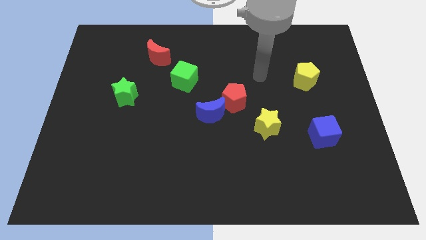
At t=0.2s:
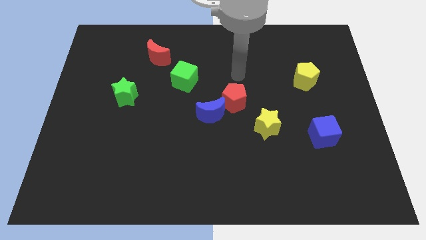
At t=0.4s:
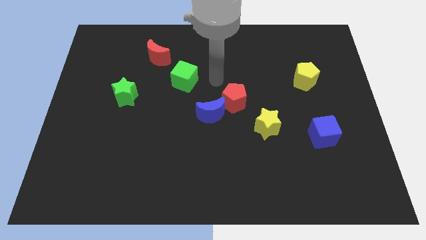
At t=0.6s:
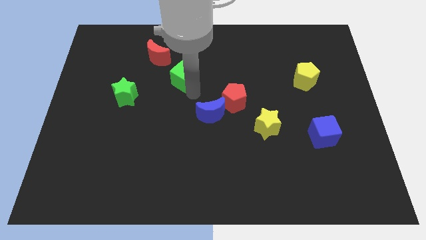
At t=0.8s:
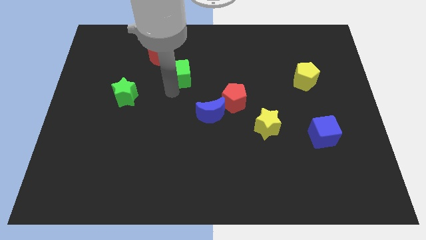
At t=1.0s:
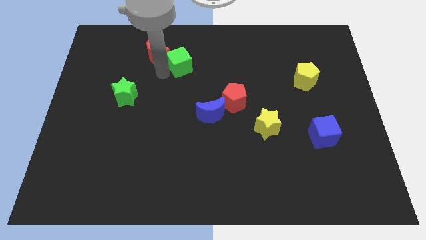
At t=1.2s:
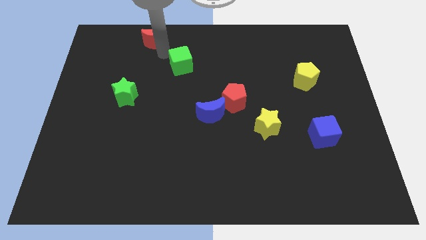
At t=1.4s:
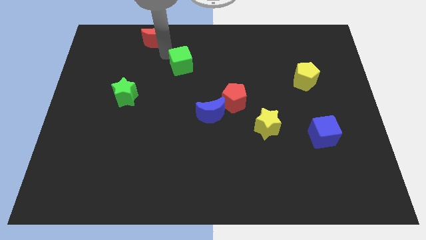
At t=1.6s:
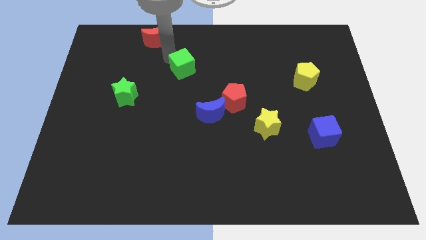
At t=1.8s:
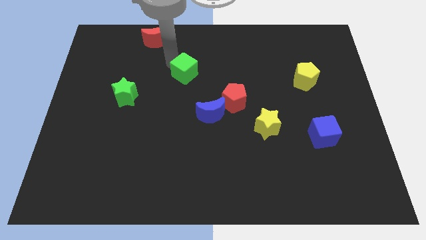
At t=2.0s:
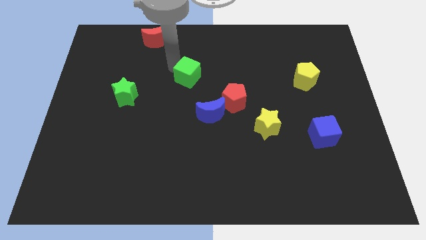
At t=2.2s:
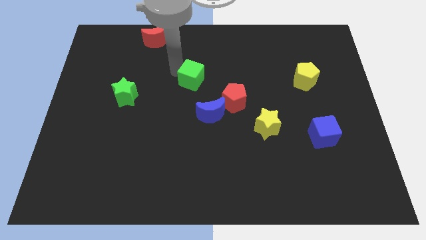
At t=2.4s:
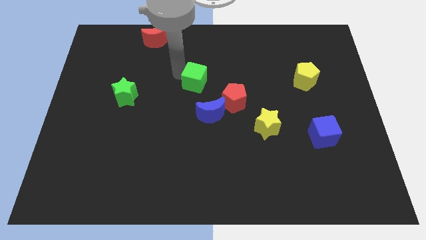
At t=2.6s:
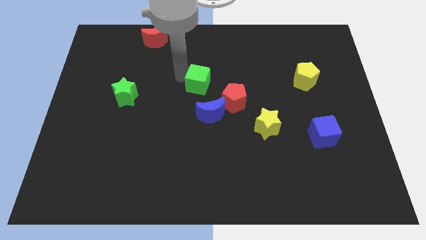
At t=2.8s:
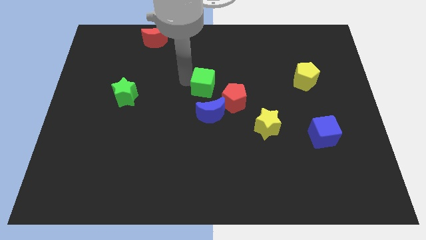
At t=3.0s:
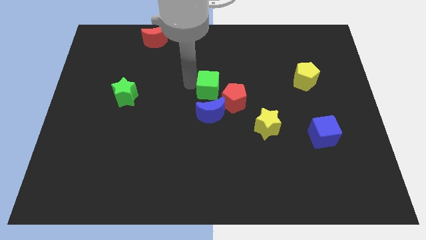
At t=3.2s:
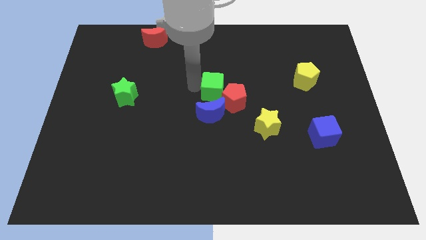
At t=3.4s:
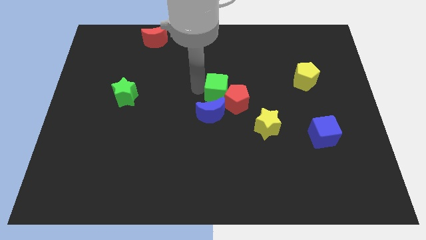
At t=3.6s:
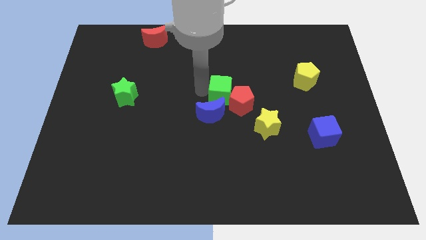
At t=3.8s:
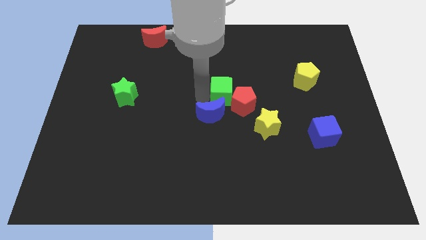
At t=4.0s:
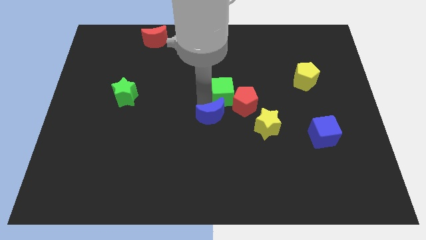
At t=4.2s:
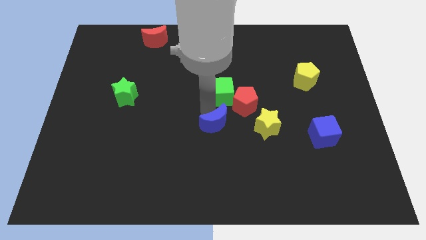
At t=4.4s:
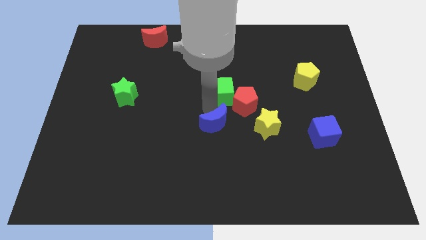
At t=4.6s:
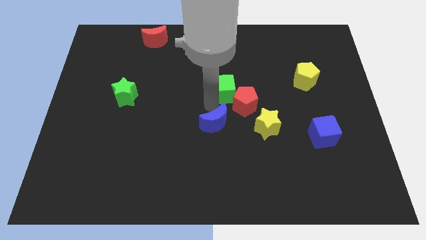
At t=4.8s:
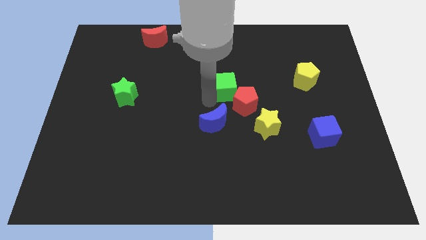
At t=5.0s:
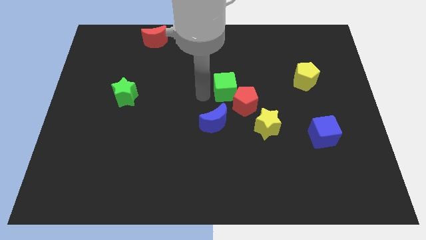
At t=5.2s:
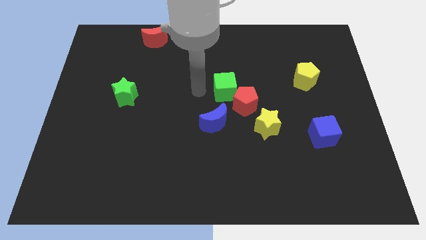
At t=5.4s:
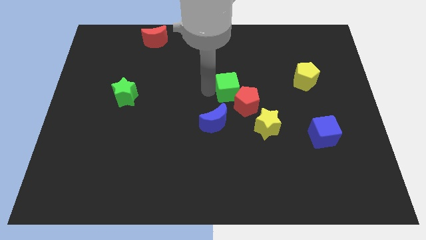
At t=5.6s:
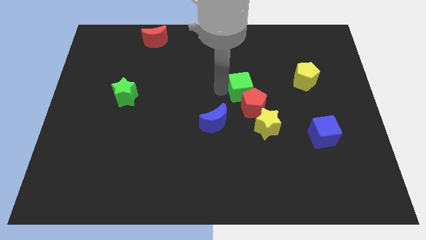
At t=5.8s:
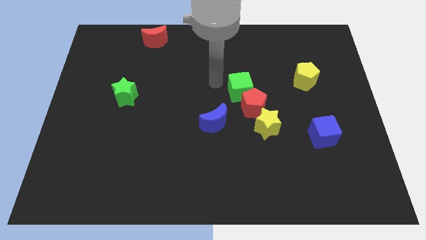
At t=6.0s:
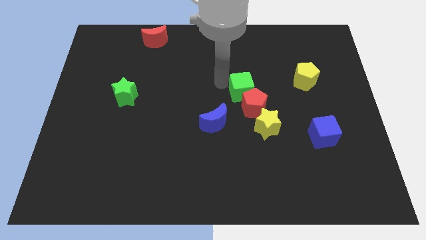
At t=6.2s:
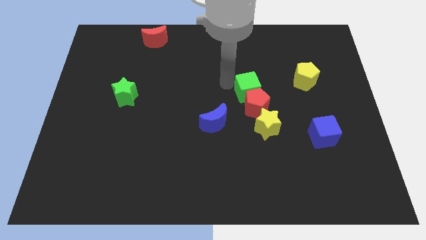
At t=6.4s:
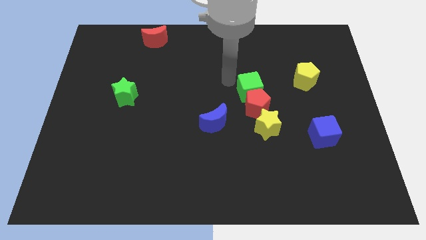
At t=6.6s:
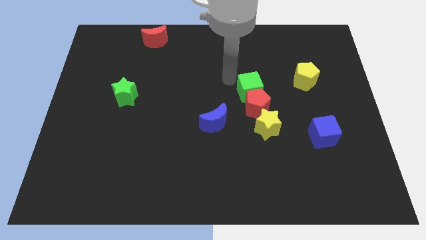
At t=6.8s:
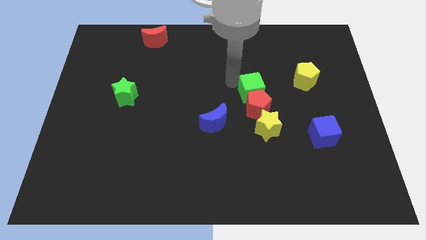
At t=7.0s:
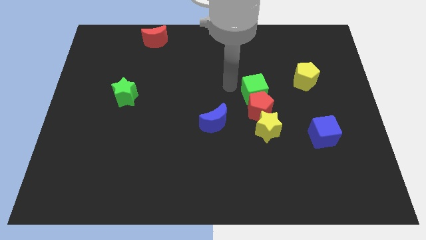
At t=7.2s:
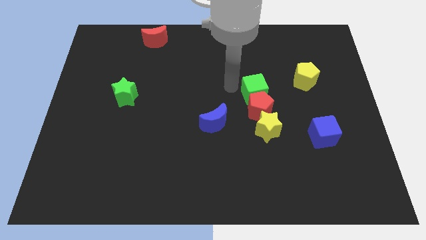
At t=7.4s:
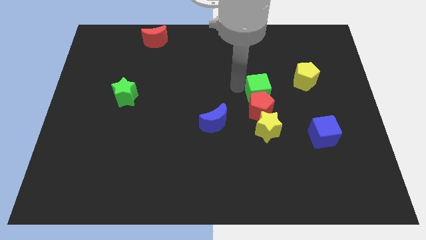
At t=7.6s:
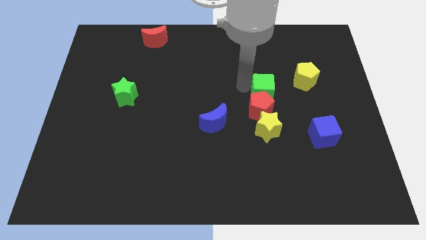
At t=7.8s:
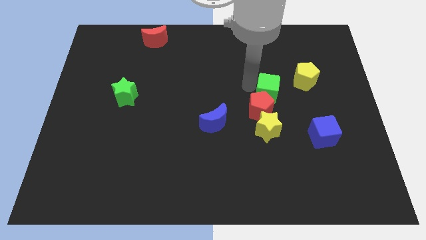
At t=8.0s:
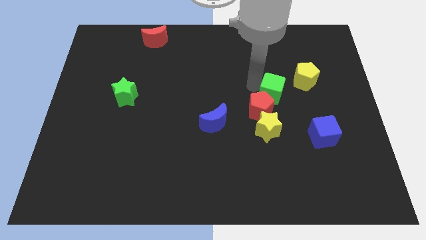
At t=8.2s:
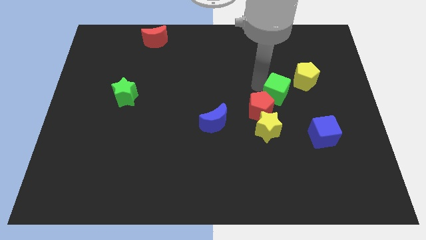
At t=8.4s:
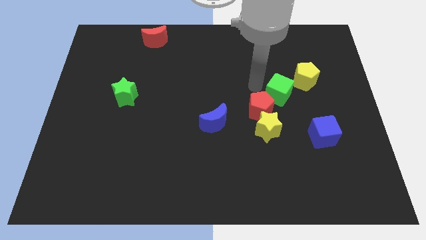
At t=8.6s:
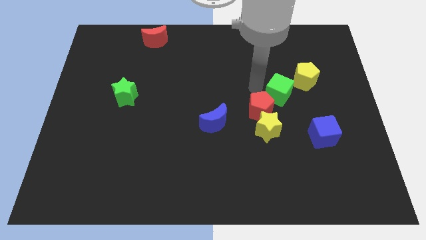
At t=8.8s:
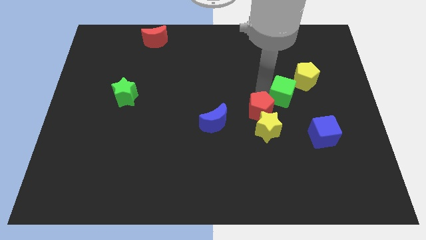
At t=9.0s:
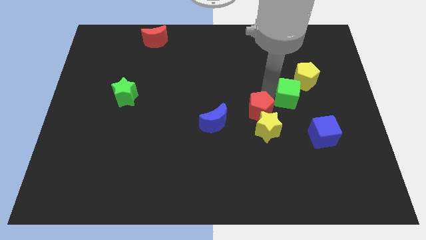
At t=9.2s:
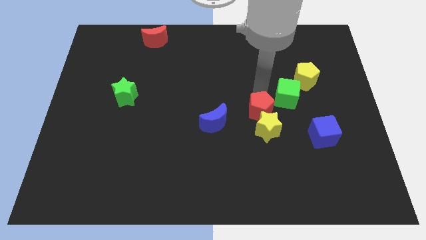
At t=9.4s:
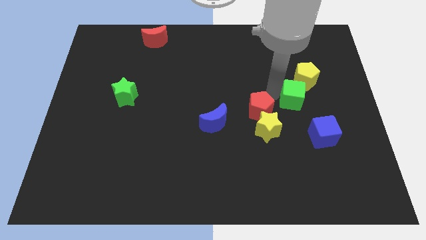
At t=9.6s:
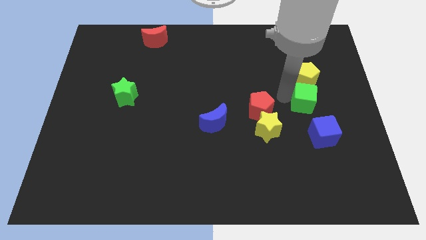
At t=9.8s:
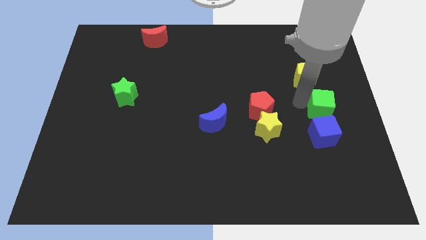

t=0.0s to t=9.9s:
push the green cube to the right side of the board

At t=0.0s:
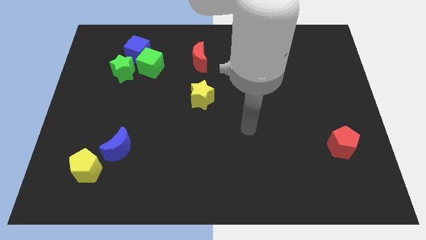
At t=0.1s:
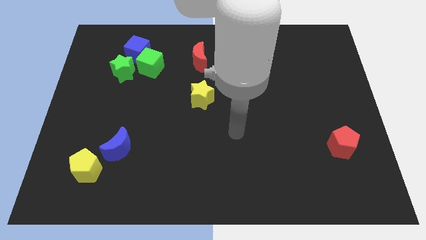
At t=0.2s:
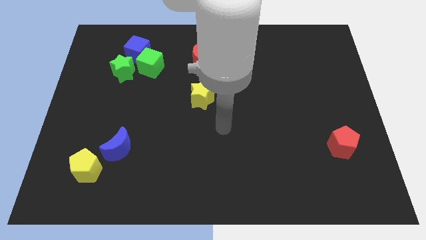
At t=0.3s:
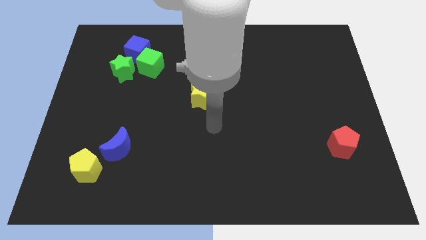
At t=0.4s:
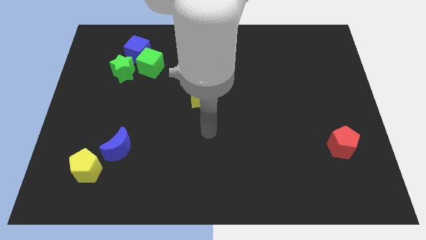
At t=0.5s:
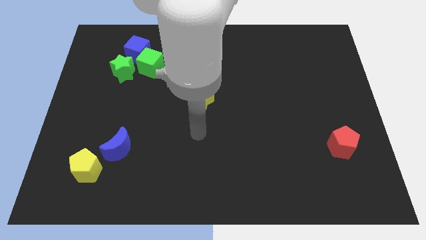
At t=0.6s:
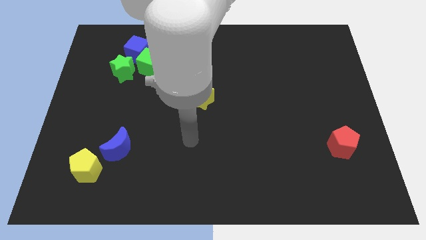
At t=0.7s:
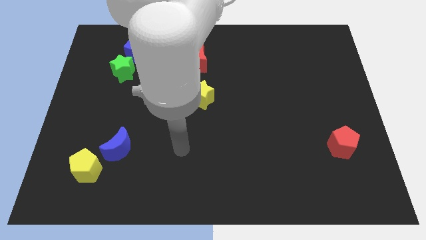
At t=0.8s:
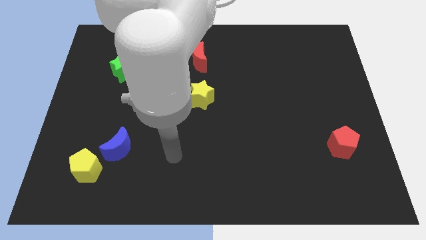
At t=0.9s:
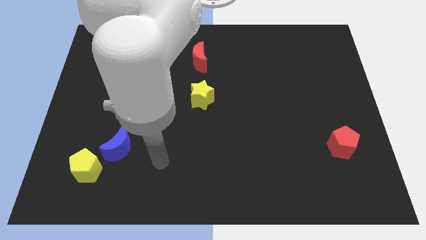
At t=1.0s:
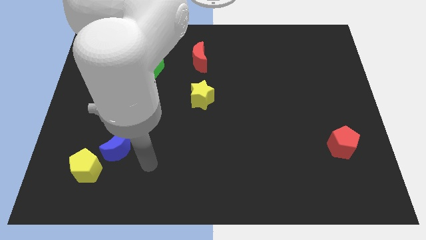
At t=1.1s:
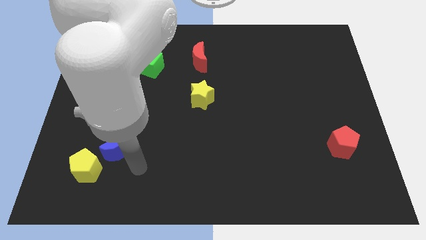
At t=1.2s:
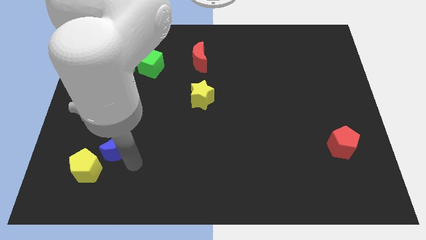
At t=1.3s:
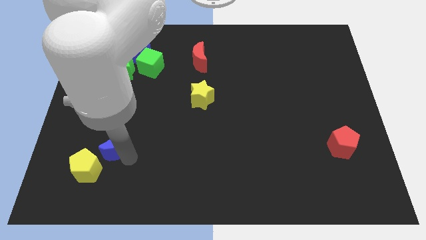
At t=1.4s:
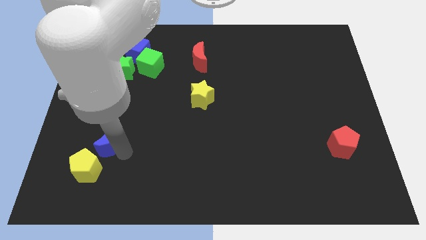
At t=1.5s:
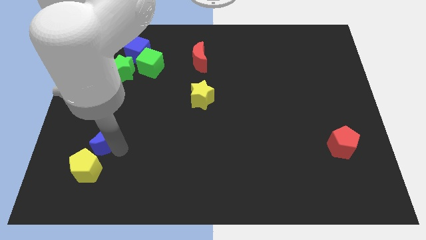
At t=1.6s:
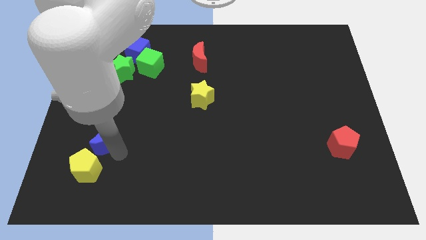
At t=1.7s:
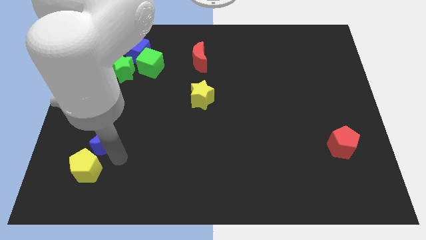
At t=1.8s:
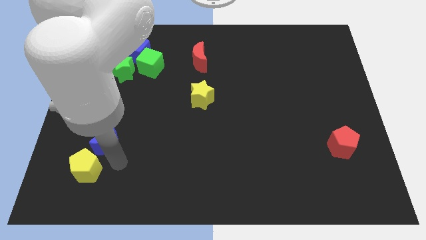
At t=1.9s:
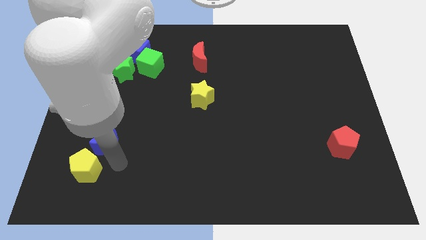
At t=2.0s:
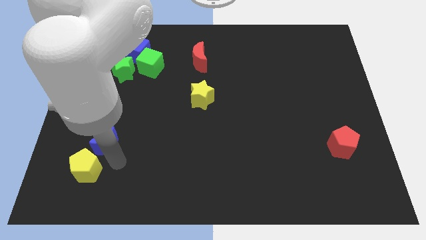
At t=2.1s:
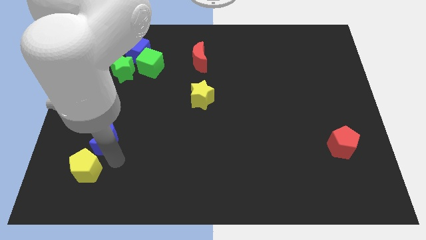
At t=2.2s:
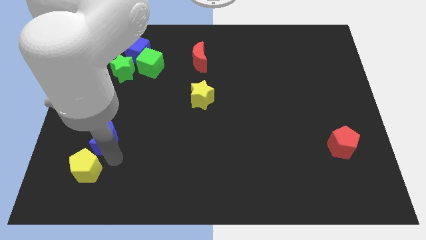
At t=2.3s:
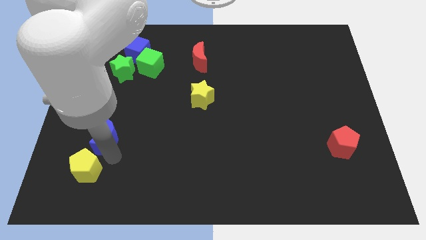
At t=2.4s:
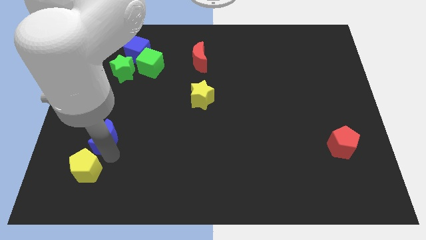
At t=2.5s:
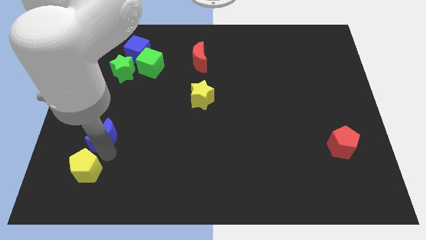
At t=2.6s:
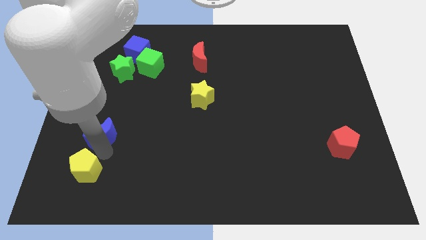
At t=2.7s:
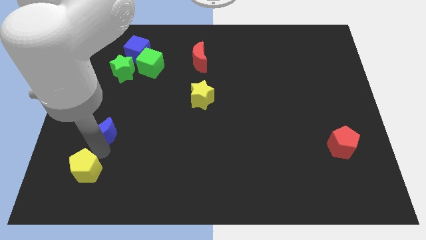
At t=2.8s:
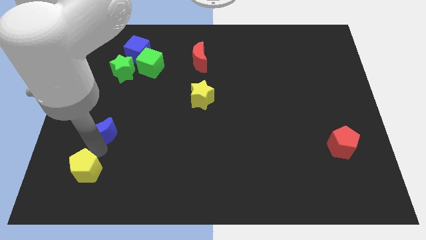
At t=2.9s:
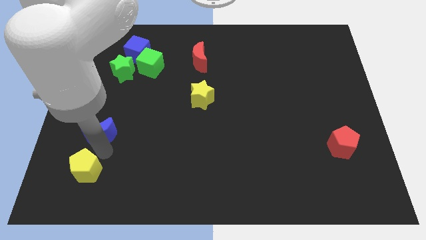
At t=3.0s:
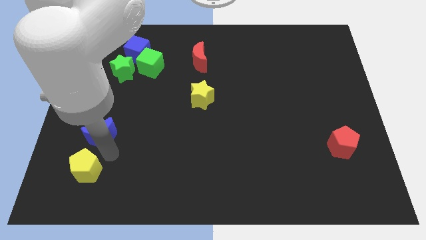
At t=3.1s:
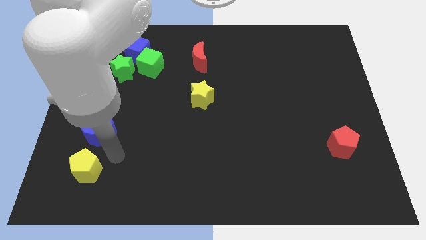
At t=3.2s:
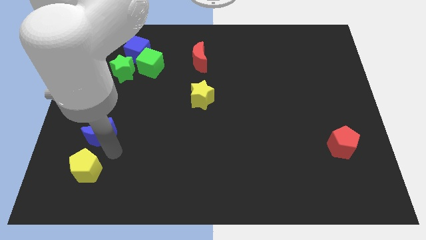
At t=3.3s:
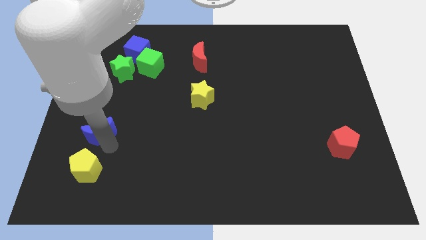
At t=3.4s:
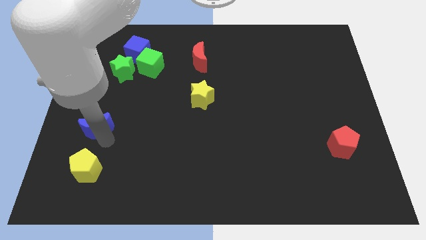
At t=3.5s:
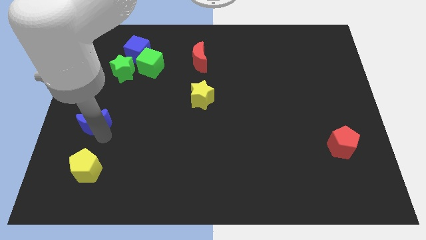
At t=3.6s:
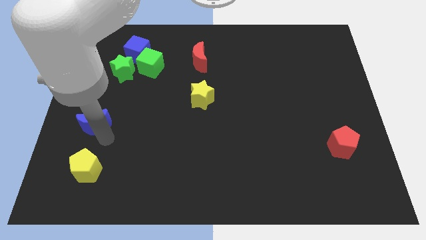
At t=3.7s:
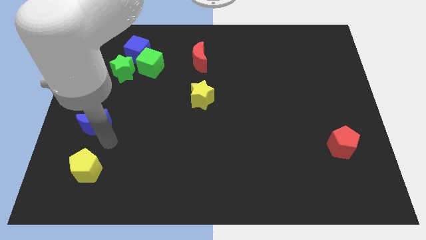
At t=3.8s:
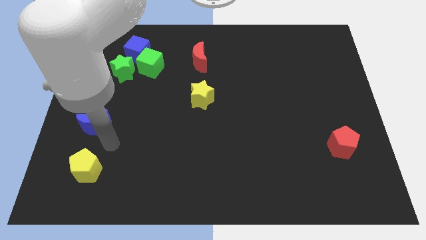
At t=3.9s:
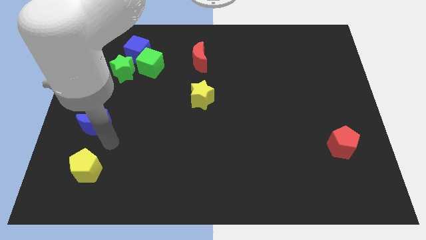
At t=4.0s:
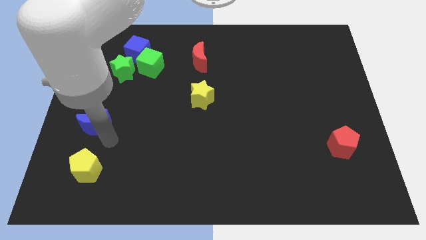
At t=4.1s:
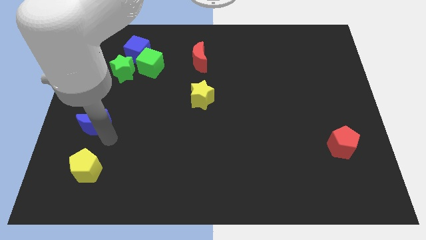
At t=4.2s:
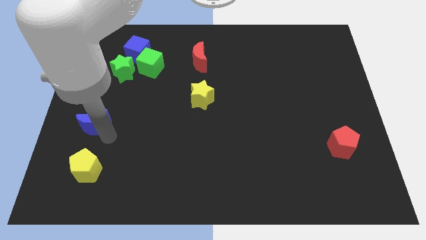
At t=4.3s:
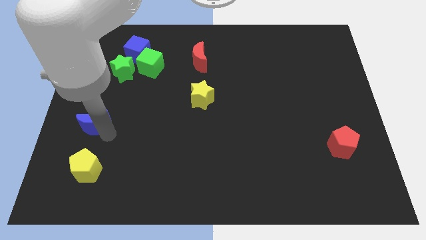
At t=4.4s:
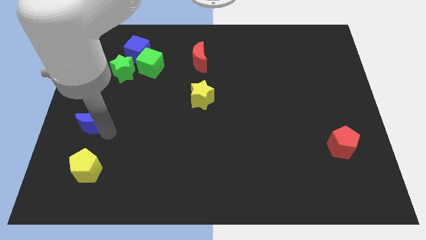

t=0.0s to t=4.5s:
put the blue moon to the center left
